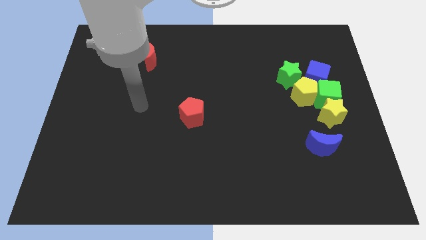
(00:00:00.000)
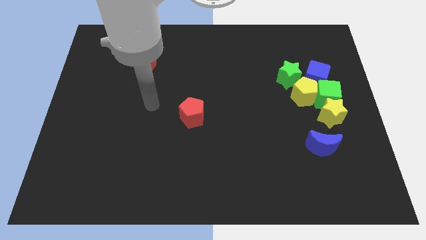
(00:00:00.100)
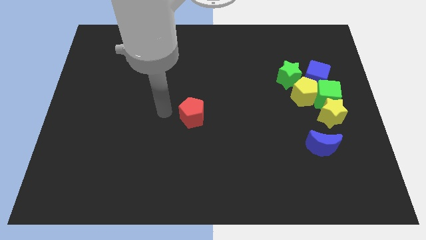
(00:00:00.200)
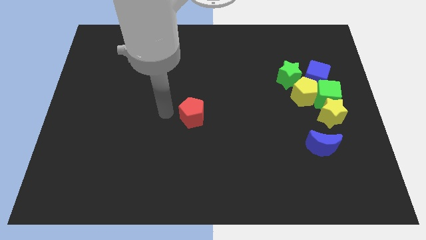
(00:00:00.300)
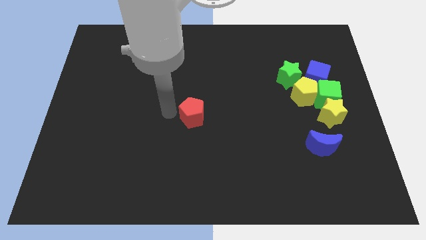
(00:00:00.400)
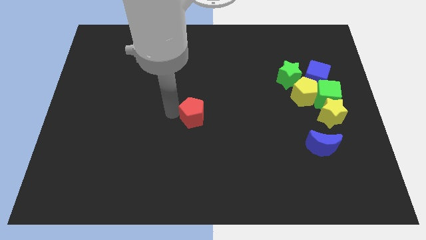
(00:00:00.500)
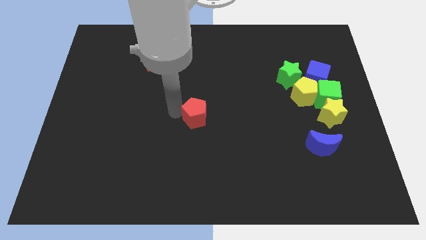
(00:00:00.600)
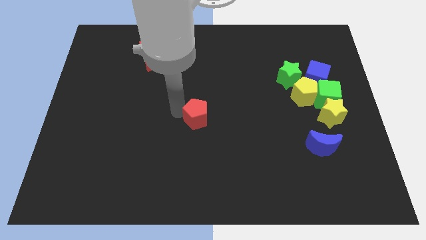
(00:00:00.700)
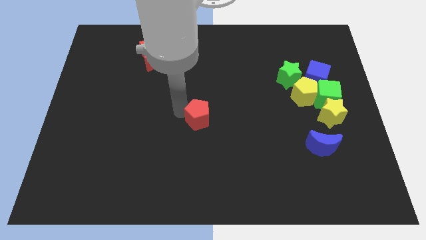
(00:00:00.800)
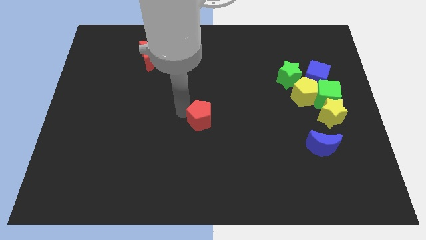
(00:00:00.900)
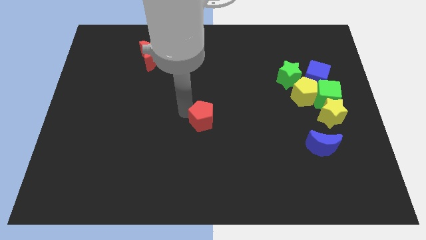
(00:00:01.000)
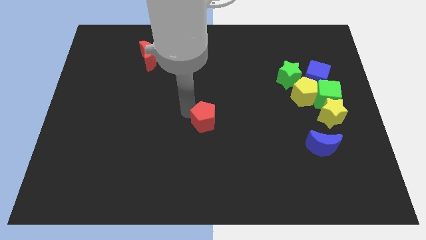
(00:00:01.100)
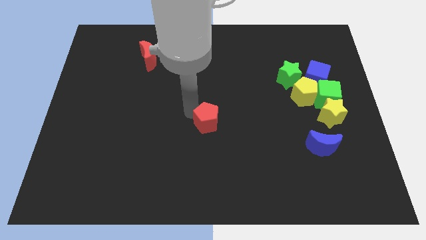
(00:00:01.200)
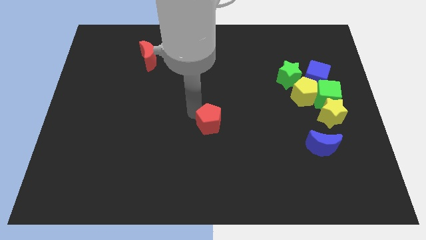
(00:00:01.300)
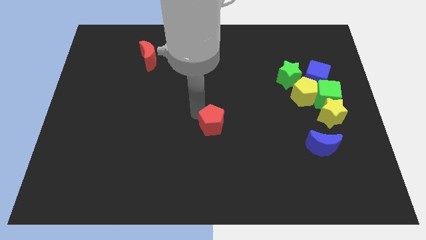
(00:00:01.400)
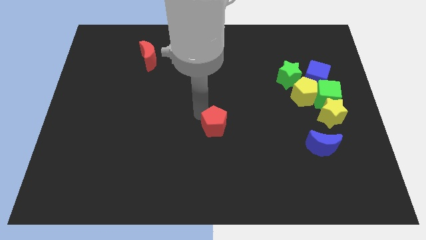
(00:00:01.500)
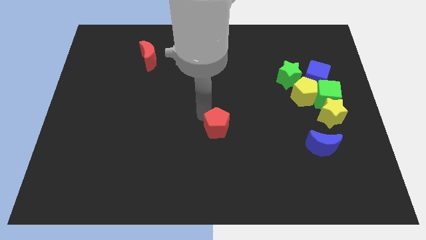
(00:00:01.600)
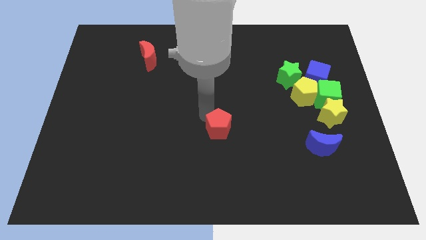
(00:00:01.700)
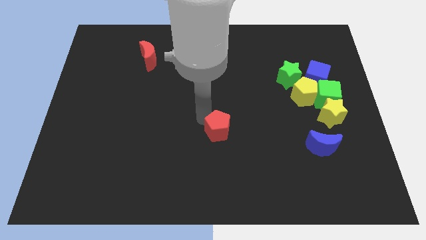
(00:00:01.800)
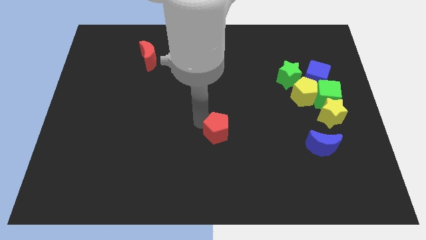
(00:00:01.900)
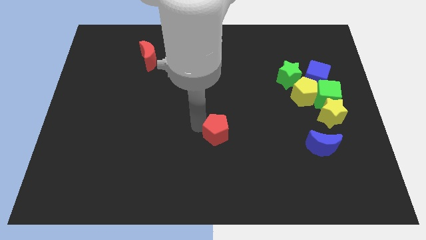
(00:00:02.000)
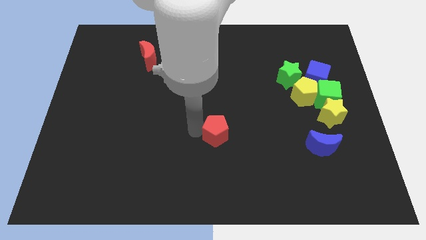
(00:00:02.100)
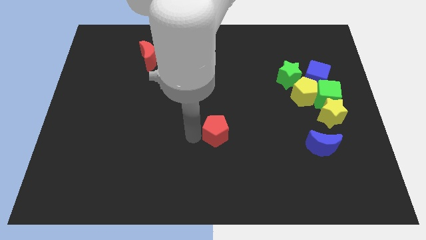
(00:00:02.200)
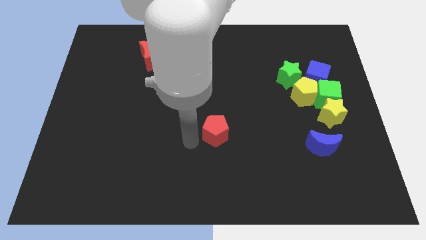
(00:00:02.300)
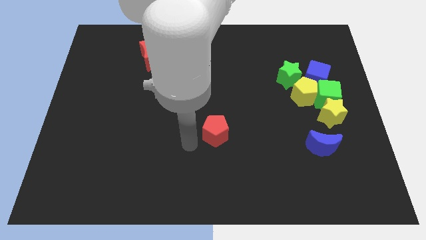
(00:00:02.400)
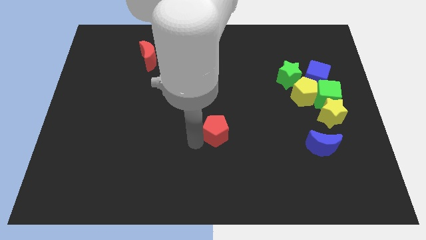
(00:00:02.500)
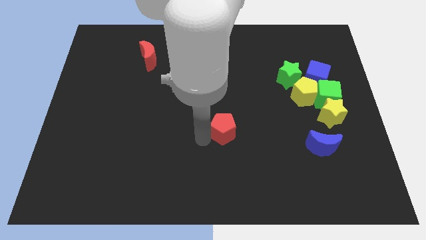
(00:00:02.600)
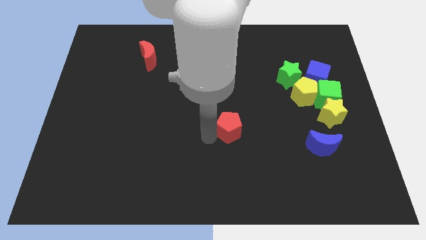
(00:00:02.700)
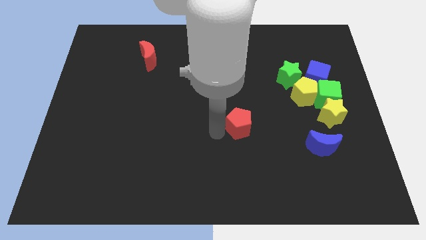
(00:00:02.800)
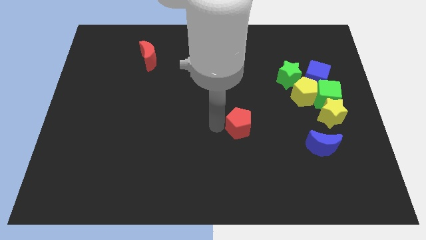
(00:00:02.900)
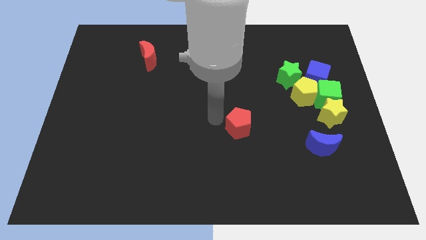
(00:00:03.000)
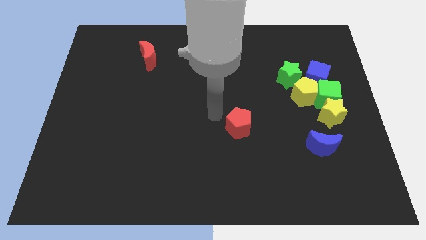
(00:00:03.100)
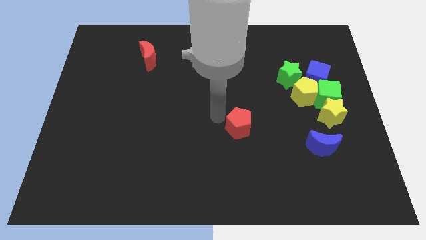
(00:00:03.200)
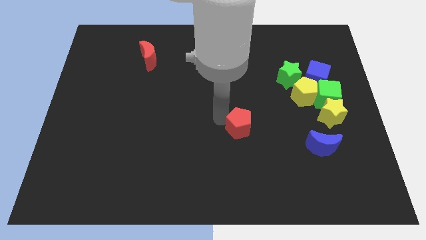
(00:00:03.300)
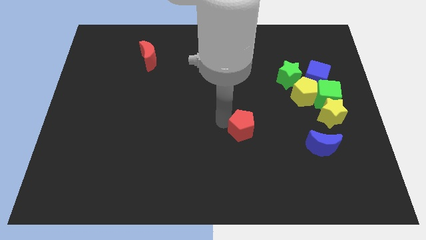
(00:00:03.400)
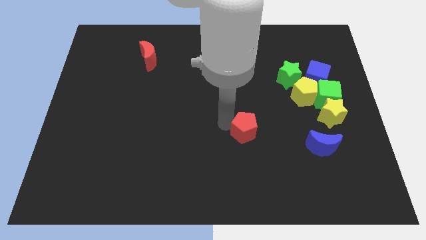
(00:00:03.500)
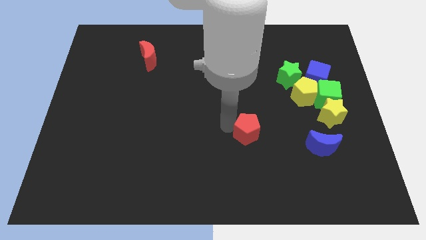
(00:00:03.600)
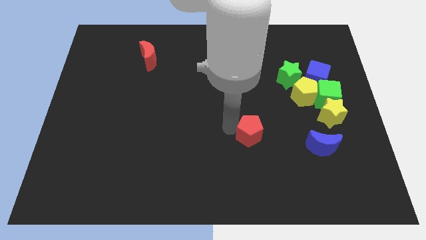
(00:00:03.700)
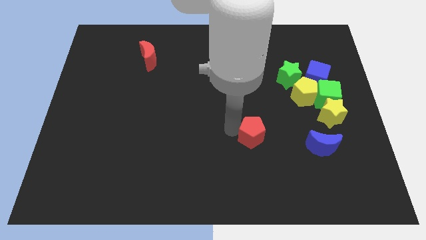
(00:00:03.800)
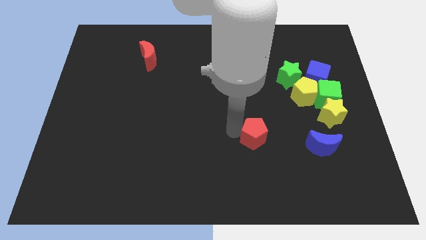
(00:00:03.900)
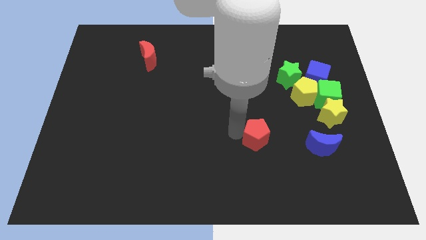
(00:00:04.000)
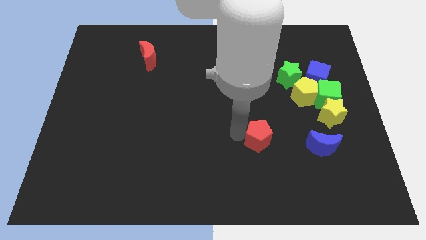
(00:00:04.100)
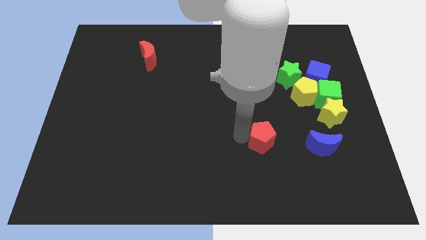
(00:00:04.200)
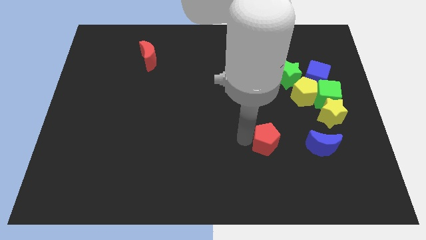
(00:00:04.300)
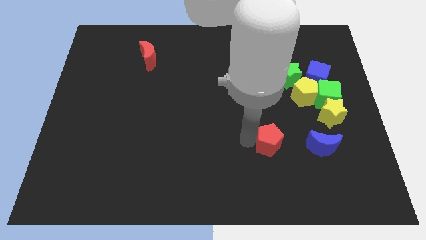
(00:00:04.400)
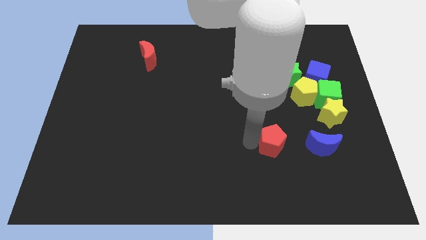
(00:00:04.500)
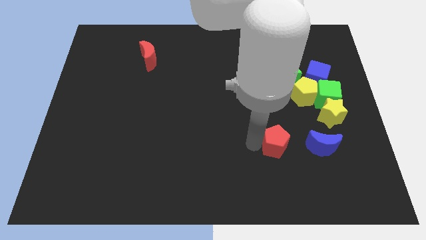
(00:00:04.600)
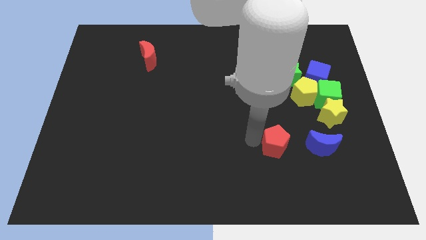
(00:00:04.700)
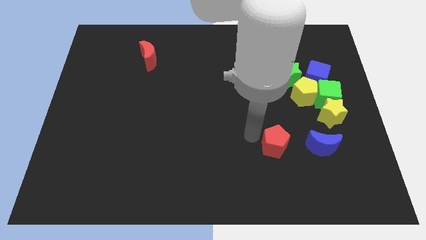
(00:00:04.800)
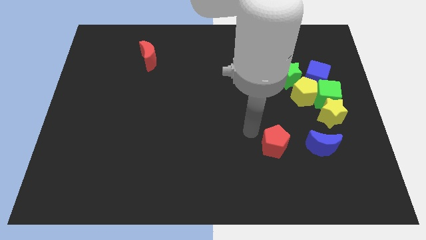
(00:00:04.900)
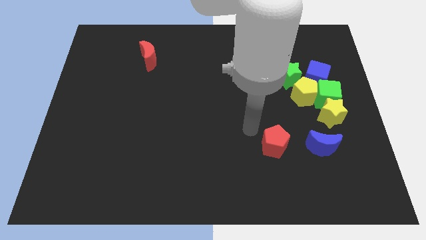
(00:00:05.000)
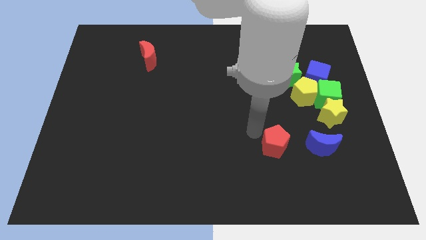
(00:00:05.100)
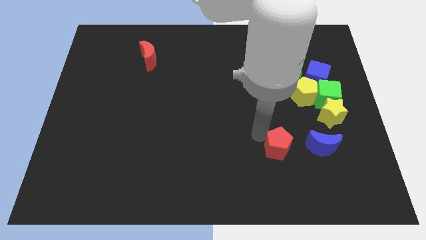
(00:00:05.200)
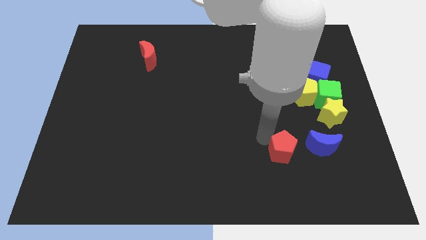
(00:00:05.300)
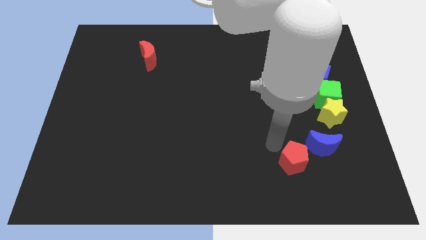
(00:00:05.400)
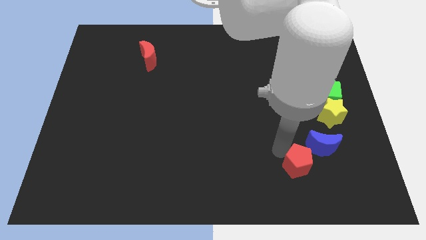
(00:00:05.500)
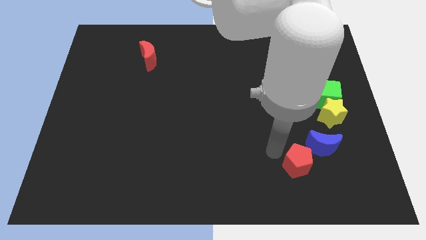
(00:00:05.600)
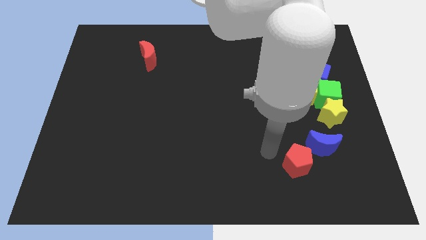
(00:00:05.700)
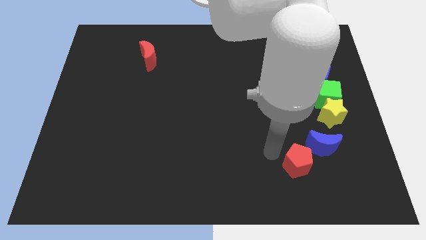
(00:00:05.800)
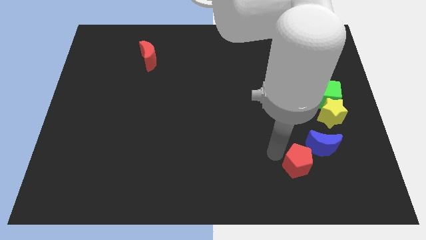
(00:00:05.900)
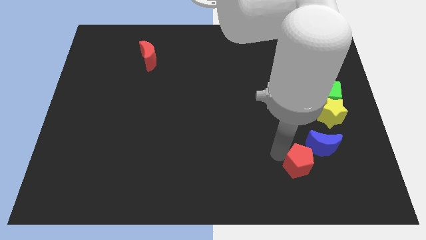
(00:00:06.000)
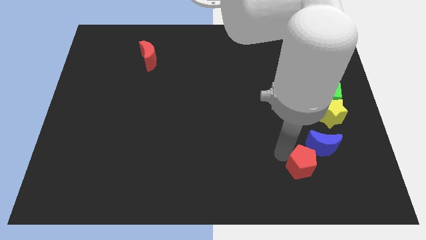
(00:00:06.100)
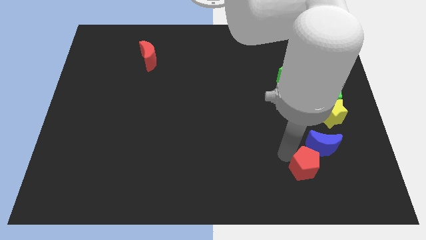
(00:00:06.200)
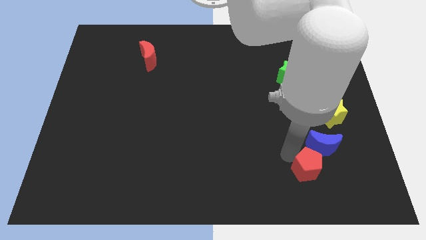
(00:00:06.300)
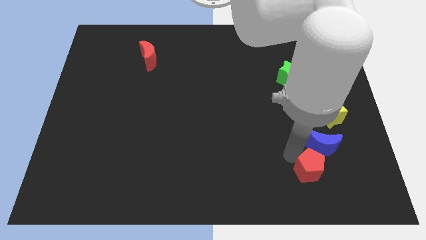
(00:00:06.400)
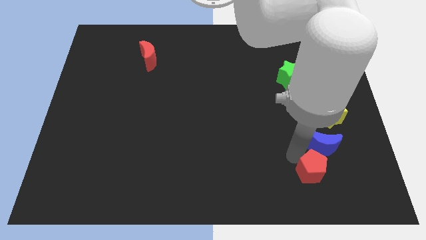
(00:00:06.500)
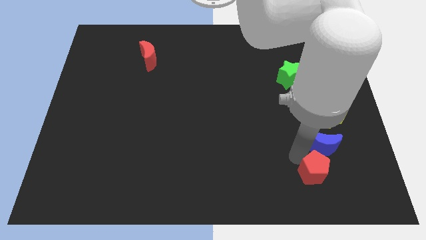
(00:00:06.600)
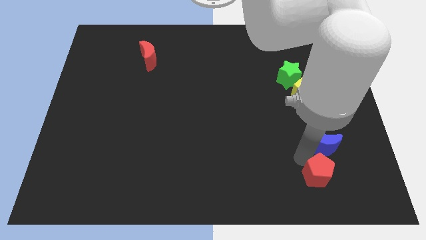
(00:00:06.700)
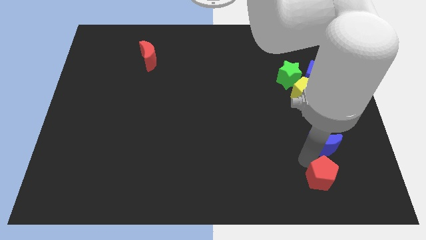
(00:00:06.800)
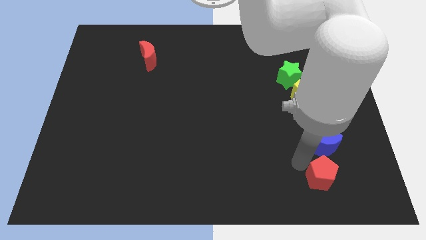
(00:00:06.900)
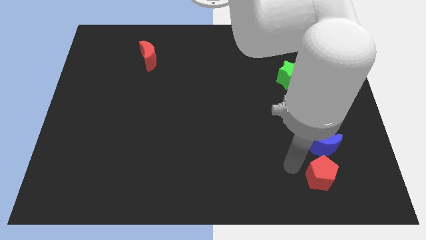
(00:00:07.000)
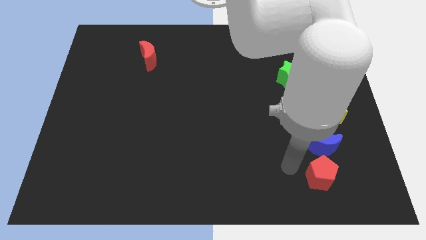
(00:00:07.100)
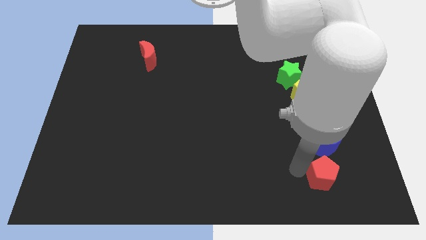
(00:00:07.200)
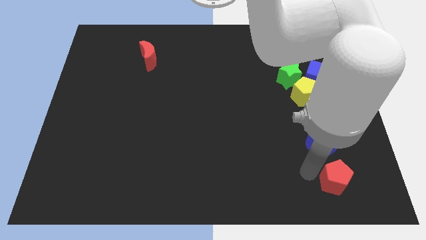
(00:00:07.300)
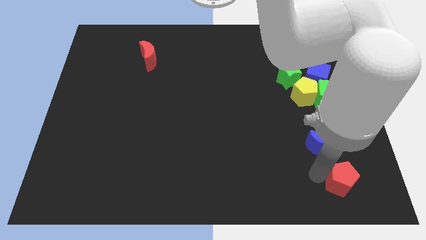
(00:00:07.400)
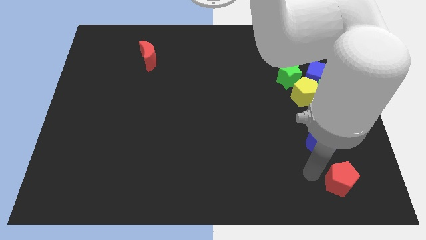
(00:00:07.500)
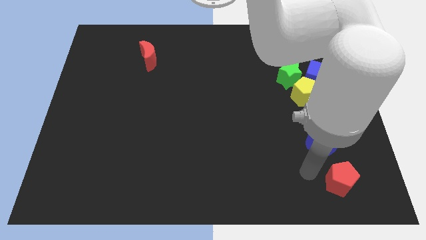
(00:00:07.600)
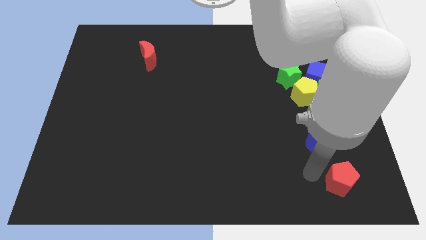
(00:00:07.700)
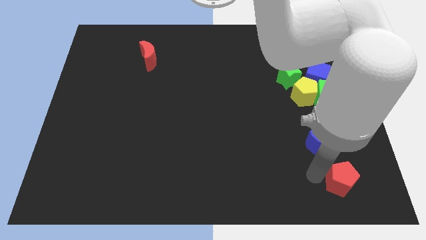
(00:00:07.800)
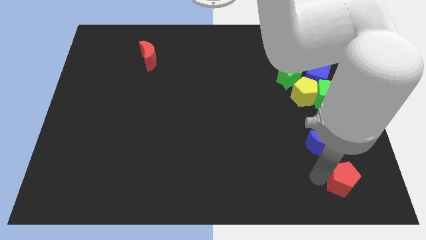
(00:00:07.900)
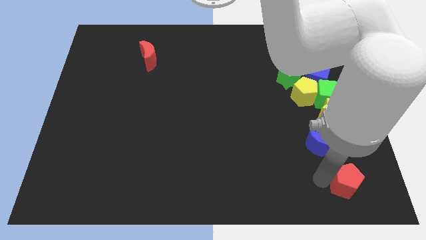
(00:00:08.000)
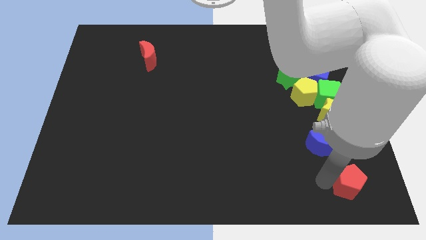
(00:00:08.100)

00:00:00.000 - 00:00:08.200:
put the red pentagon to the lower right corner
